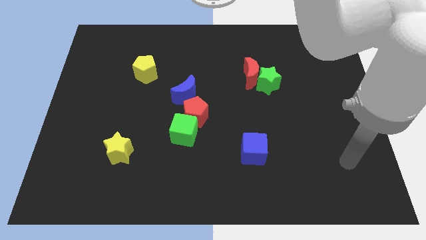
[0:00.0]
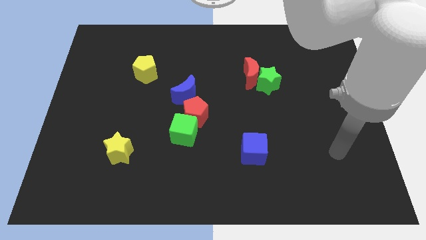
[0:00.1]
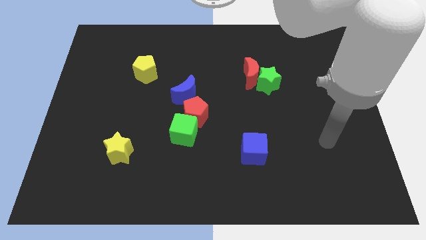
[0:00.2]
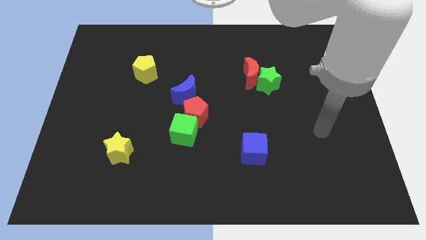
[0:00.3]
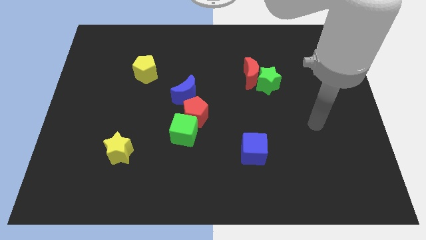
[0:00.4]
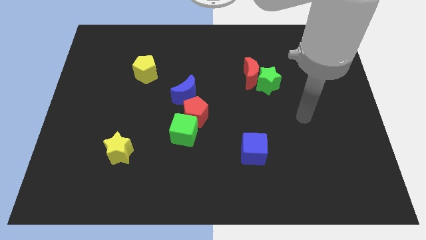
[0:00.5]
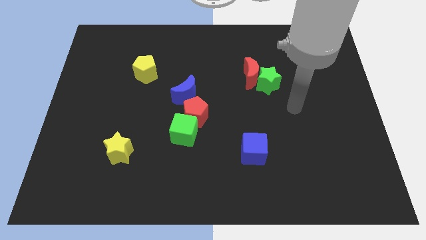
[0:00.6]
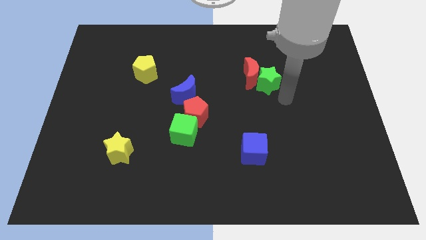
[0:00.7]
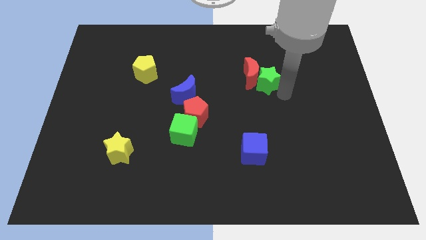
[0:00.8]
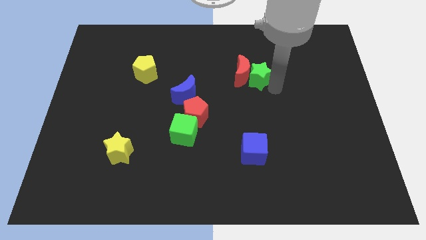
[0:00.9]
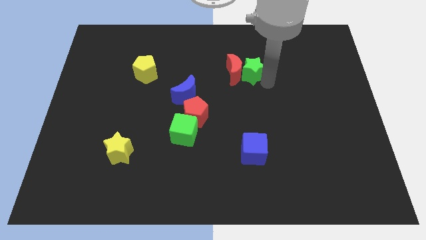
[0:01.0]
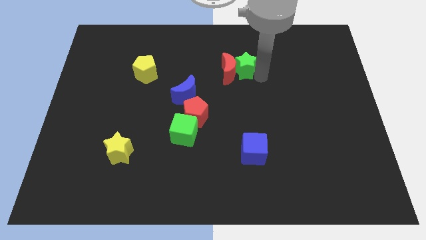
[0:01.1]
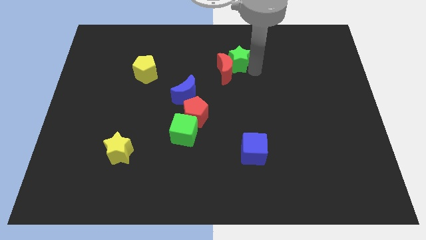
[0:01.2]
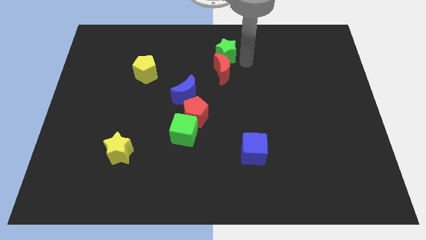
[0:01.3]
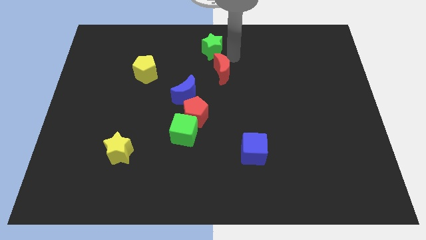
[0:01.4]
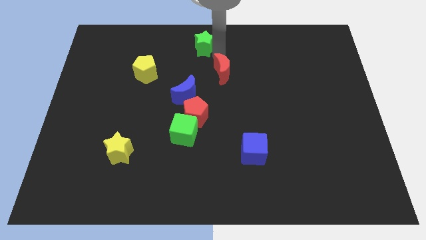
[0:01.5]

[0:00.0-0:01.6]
move the red moon away from the green star

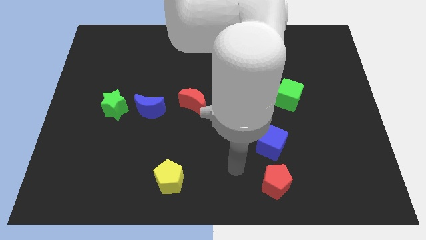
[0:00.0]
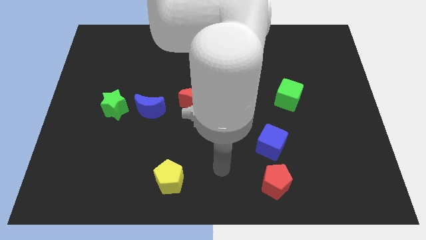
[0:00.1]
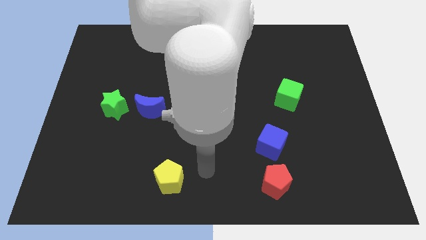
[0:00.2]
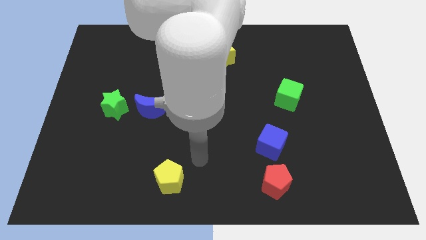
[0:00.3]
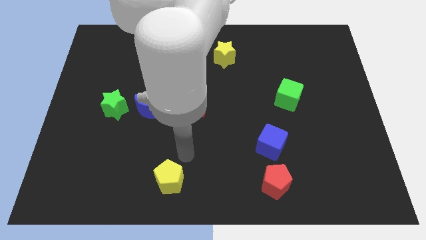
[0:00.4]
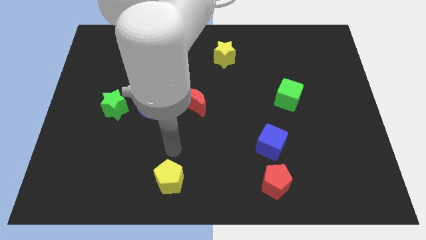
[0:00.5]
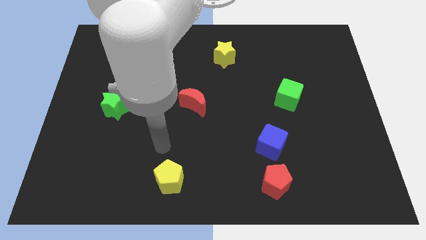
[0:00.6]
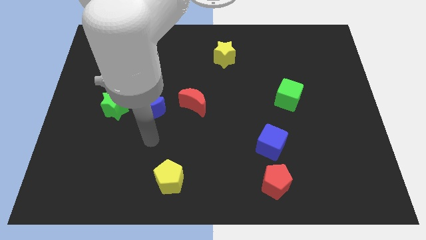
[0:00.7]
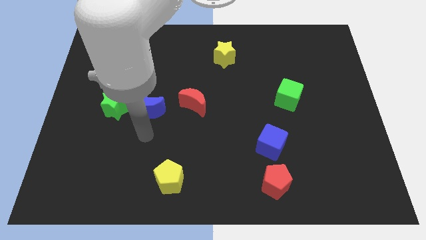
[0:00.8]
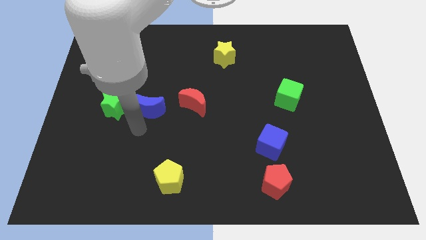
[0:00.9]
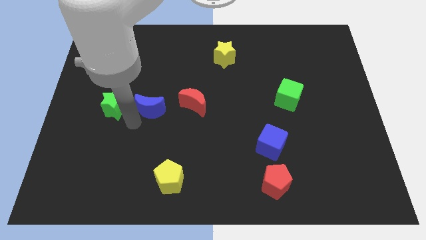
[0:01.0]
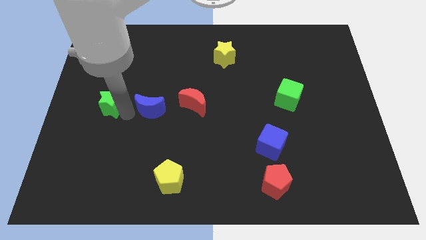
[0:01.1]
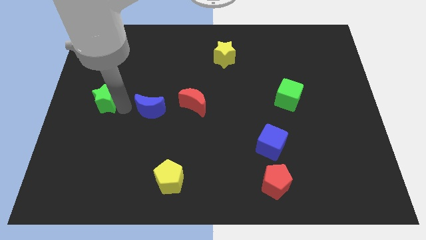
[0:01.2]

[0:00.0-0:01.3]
pull the blue moon apart from the green star

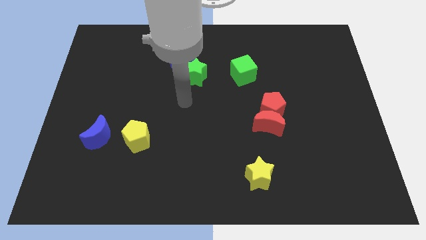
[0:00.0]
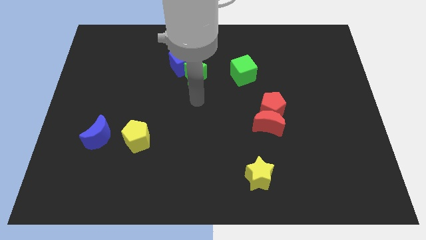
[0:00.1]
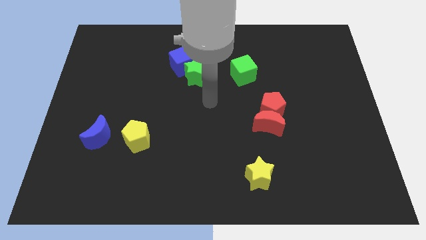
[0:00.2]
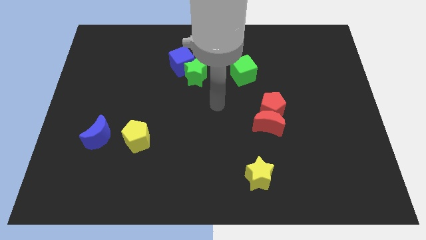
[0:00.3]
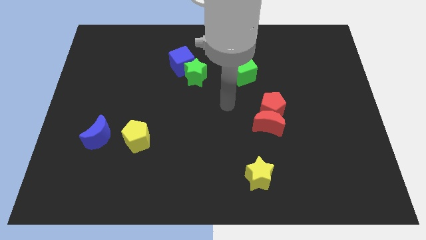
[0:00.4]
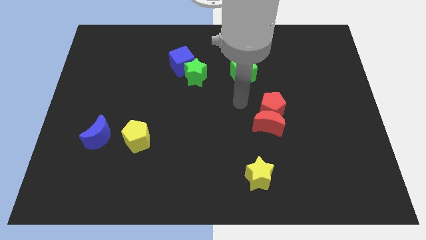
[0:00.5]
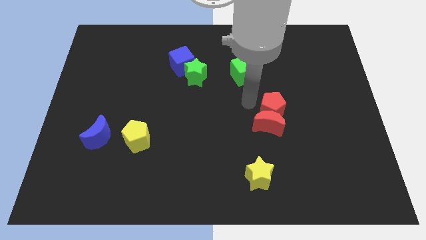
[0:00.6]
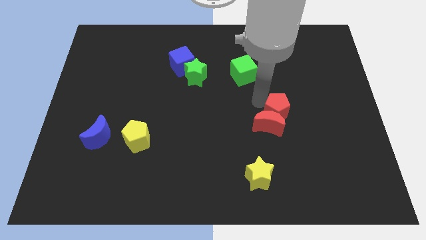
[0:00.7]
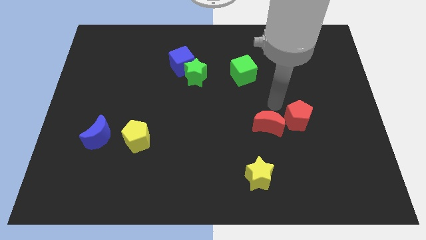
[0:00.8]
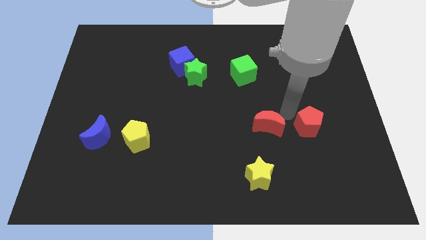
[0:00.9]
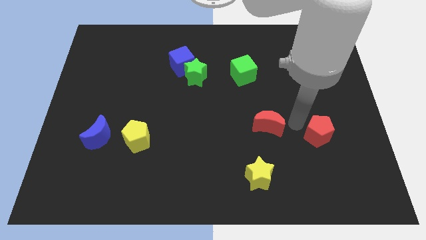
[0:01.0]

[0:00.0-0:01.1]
pull the red moon apart from the red pentagon

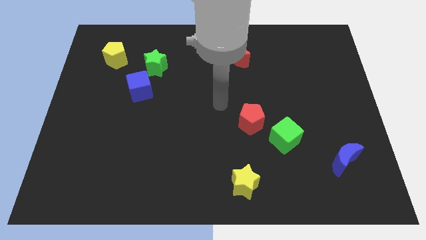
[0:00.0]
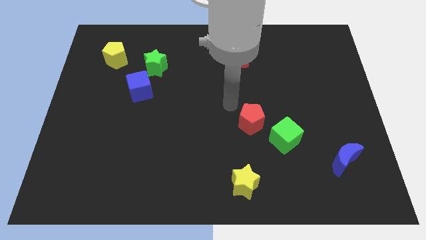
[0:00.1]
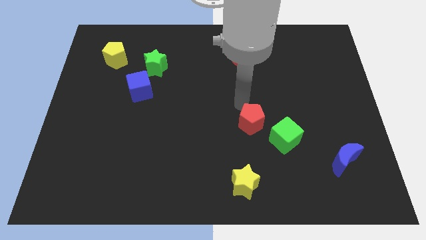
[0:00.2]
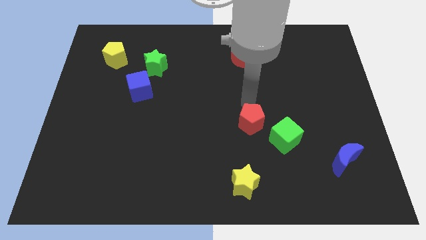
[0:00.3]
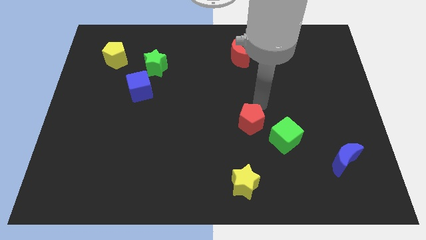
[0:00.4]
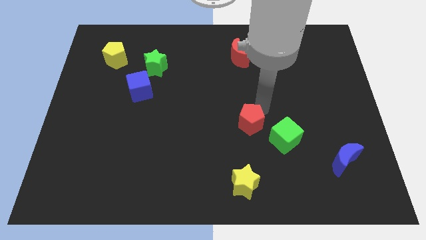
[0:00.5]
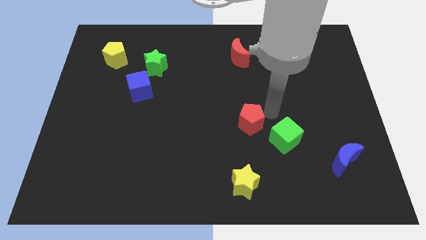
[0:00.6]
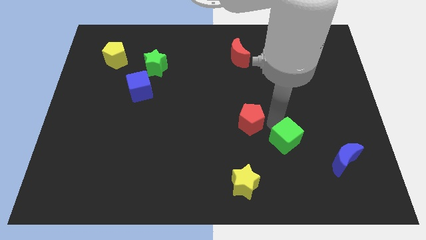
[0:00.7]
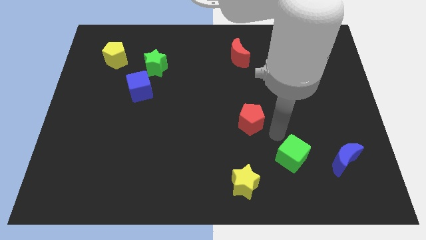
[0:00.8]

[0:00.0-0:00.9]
separate the red pentagon from the green cube

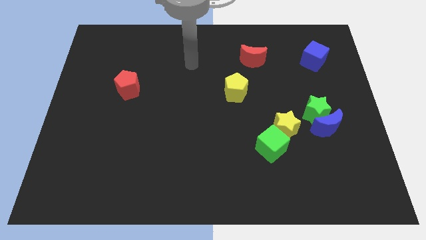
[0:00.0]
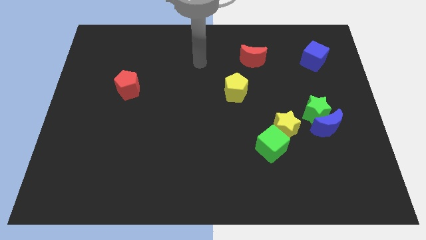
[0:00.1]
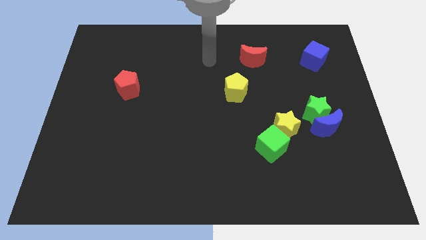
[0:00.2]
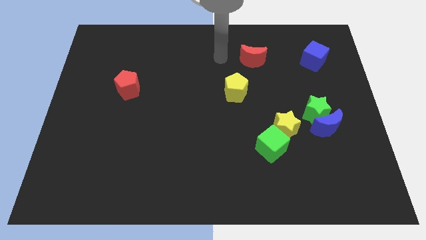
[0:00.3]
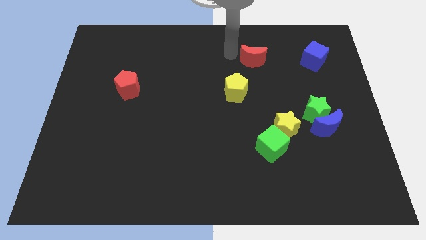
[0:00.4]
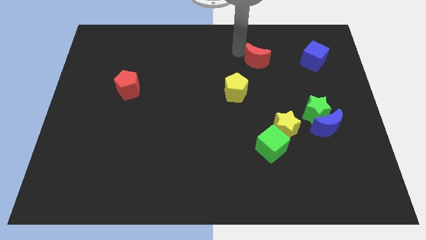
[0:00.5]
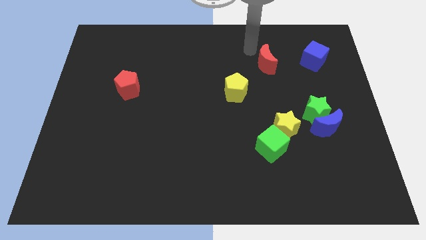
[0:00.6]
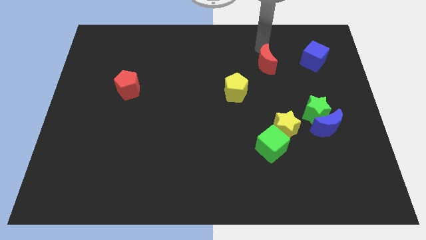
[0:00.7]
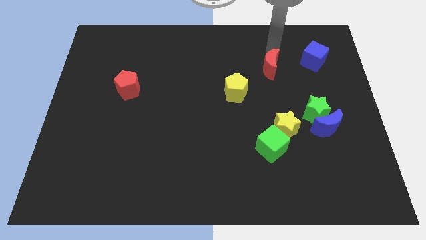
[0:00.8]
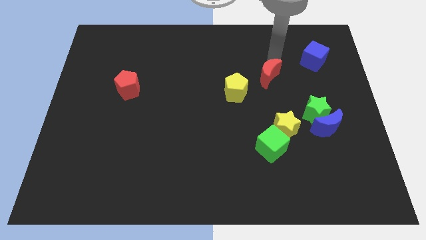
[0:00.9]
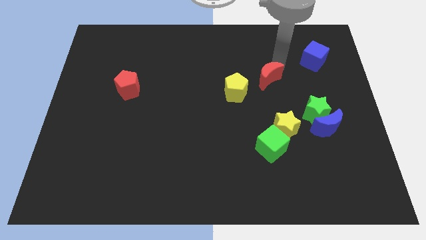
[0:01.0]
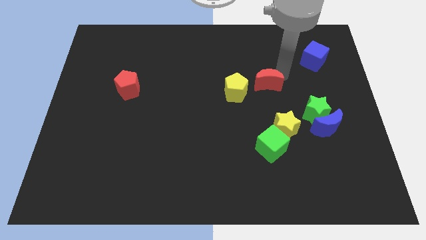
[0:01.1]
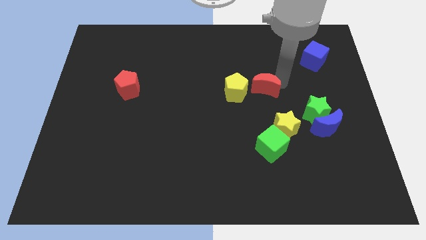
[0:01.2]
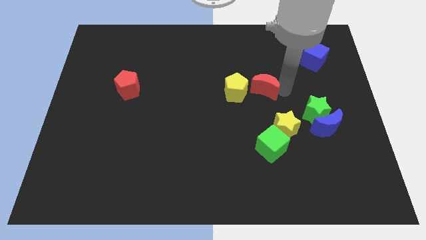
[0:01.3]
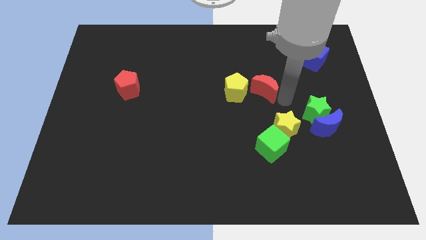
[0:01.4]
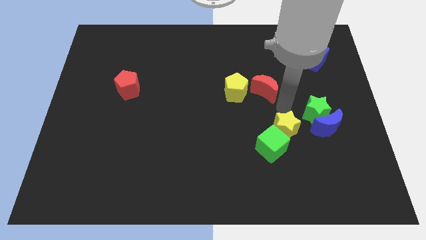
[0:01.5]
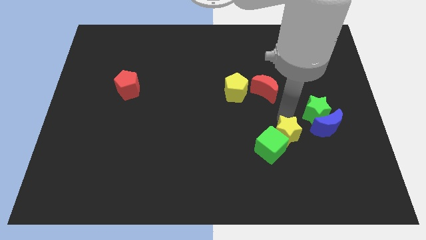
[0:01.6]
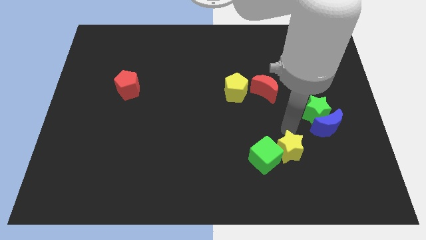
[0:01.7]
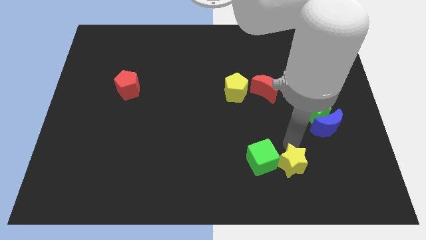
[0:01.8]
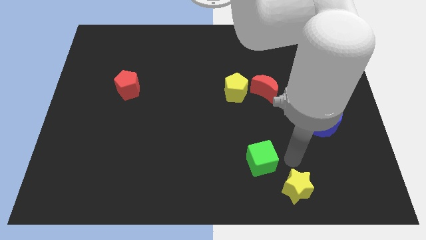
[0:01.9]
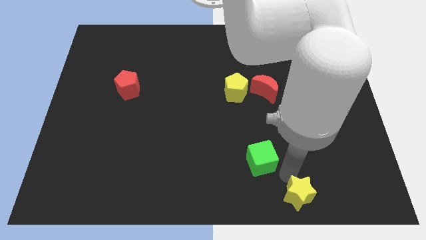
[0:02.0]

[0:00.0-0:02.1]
move the green cube away from the yellow star

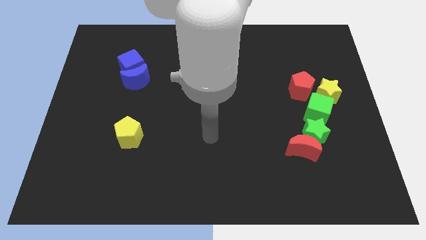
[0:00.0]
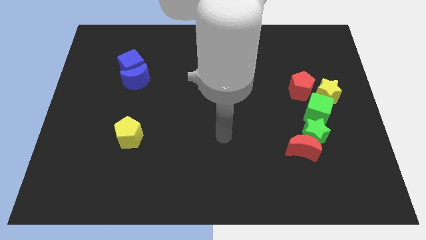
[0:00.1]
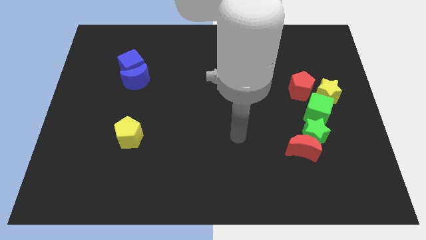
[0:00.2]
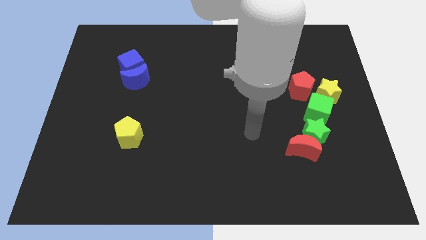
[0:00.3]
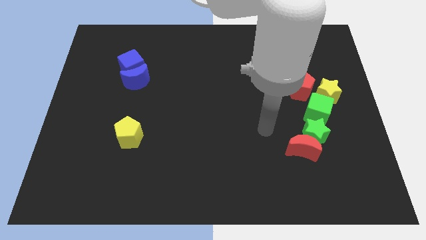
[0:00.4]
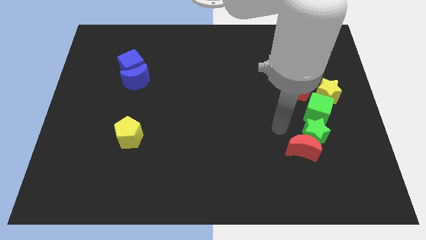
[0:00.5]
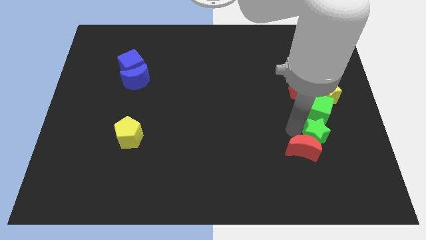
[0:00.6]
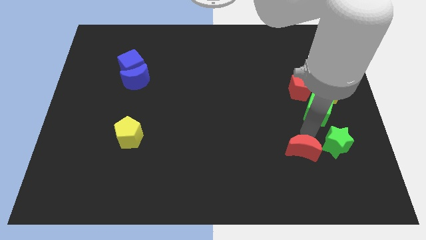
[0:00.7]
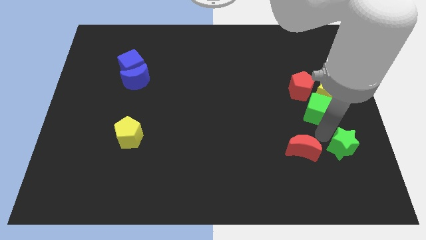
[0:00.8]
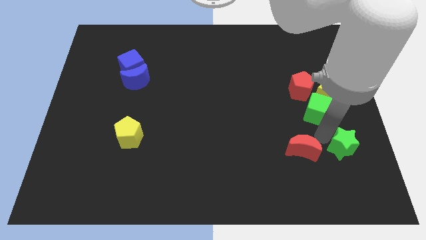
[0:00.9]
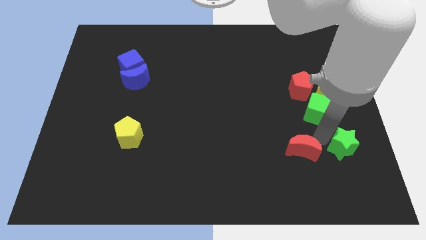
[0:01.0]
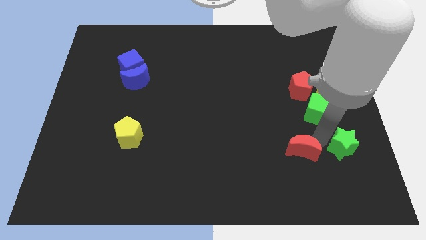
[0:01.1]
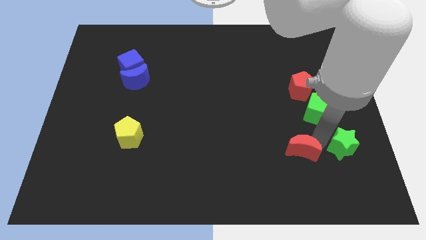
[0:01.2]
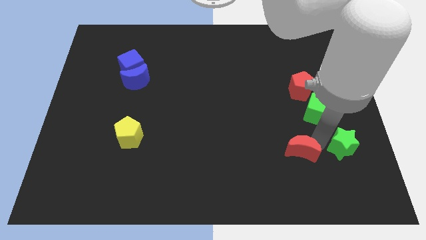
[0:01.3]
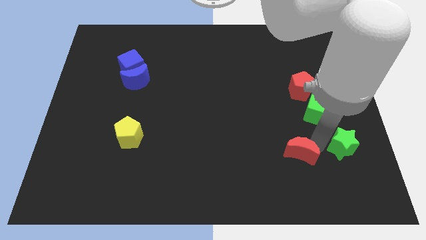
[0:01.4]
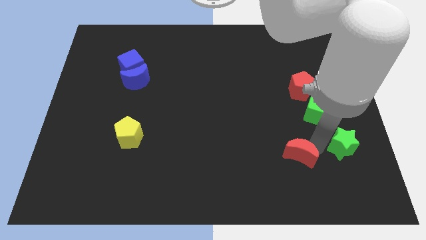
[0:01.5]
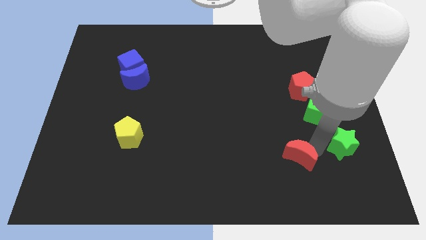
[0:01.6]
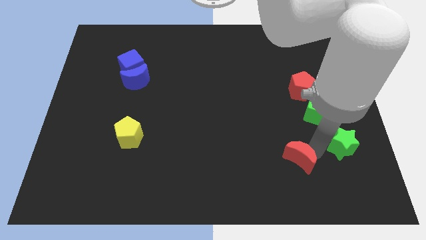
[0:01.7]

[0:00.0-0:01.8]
separate the red moon from the green star

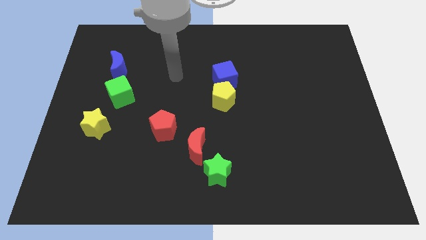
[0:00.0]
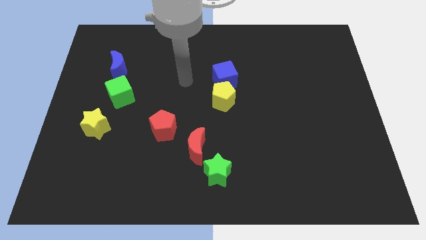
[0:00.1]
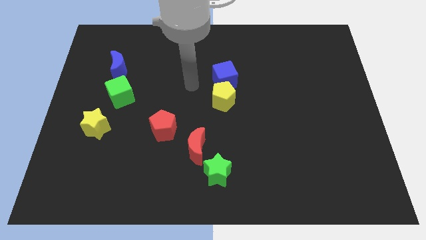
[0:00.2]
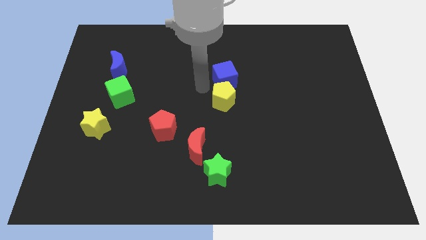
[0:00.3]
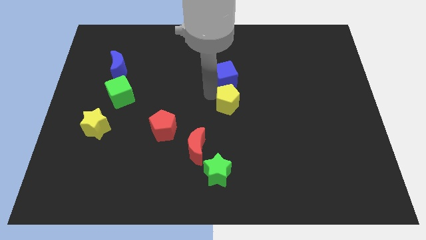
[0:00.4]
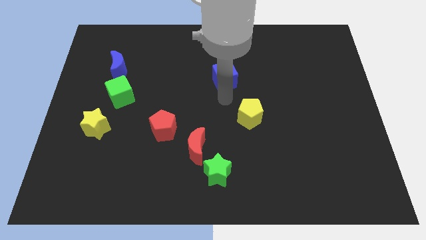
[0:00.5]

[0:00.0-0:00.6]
separate the blue cube from the yellow pentagon

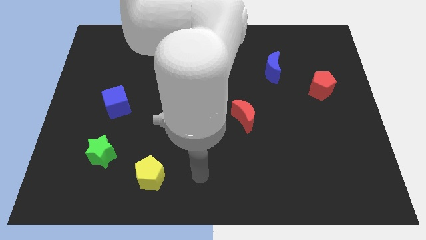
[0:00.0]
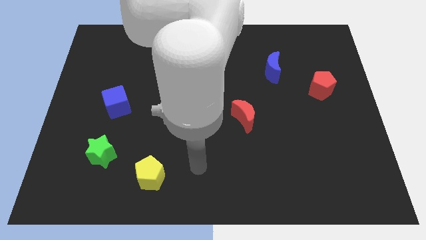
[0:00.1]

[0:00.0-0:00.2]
pull the red moon apart from the green cube
